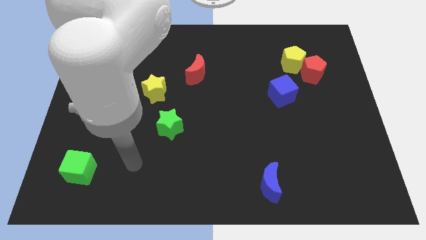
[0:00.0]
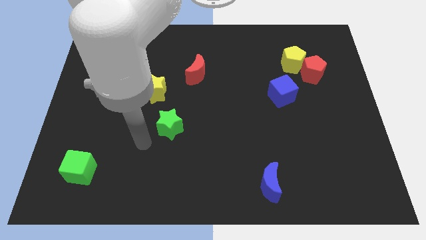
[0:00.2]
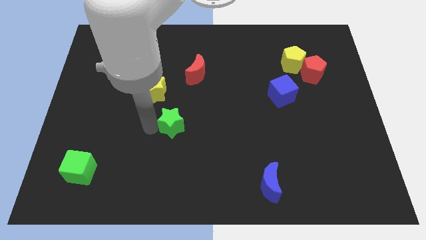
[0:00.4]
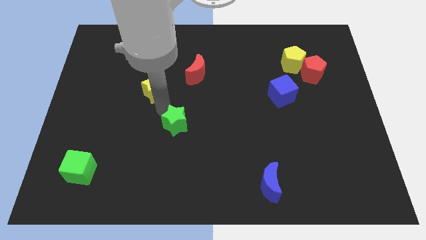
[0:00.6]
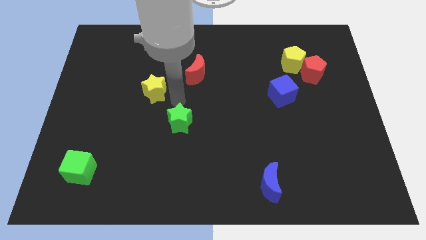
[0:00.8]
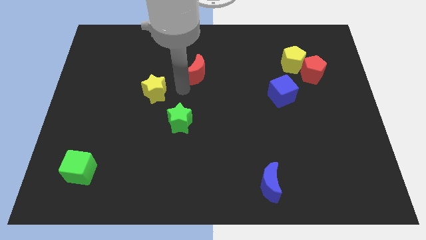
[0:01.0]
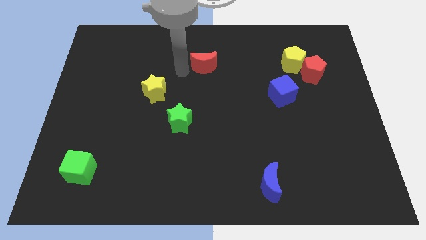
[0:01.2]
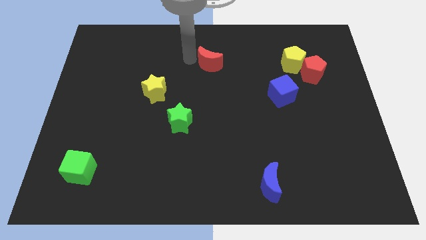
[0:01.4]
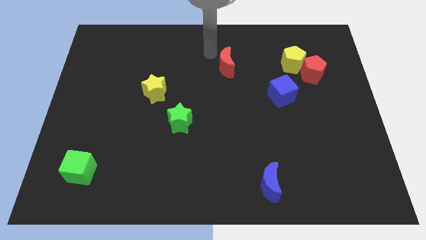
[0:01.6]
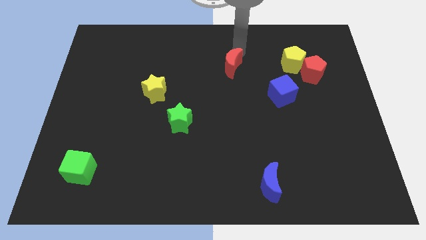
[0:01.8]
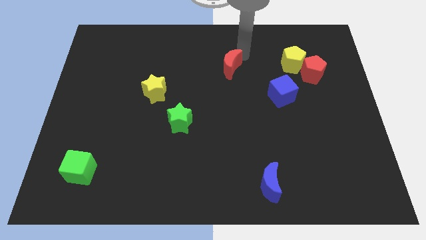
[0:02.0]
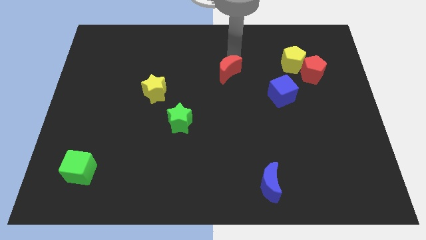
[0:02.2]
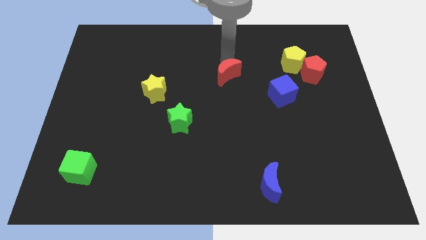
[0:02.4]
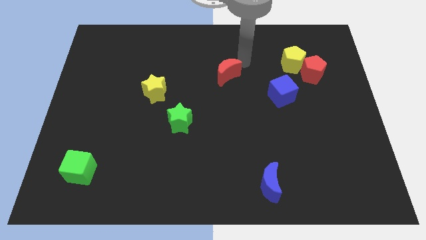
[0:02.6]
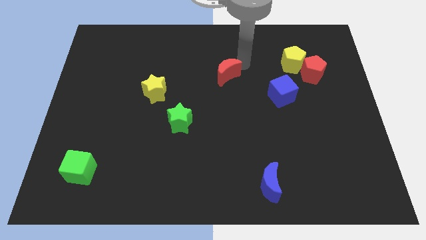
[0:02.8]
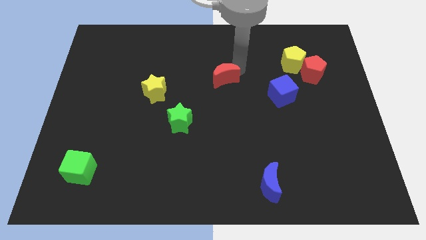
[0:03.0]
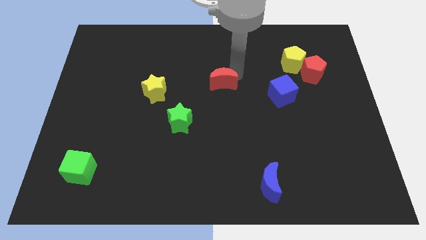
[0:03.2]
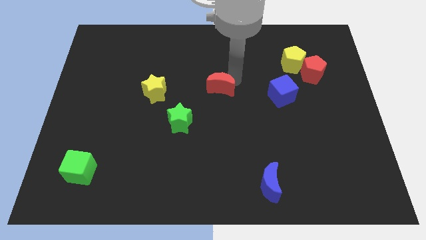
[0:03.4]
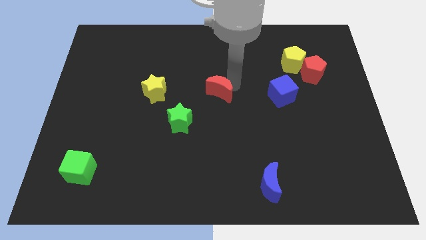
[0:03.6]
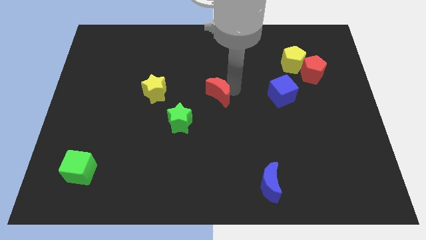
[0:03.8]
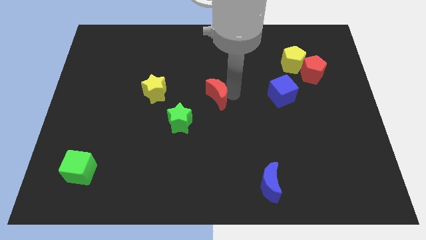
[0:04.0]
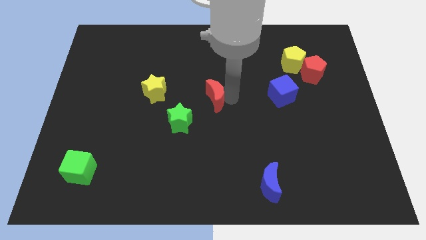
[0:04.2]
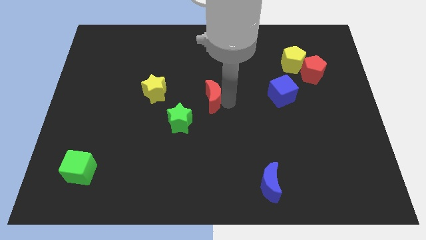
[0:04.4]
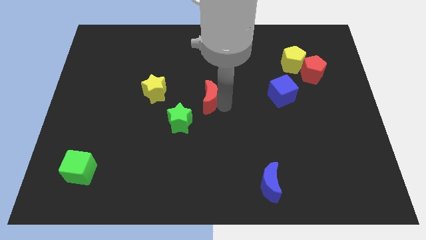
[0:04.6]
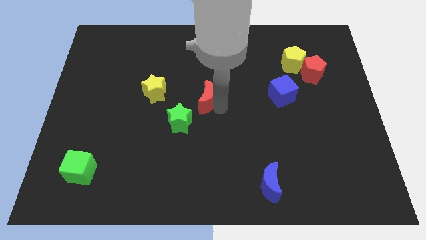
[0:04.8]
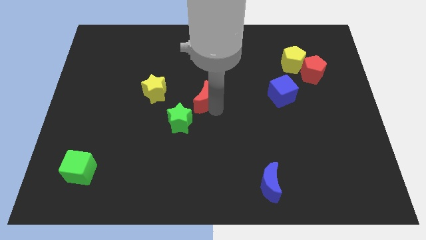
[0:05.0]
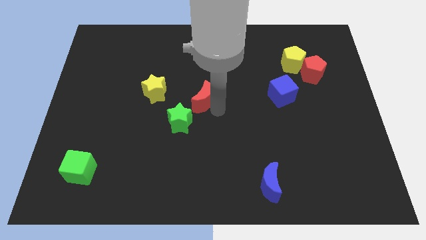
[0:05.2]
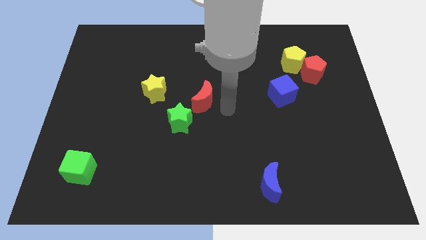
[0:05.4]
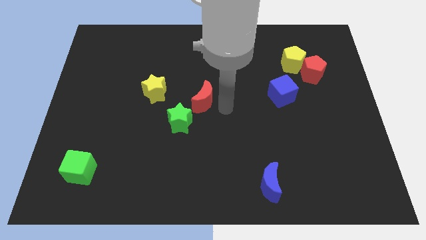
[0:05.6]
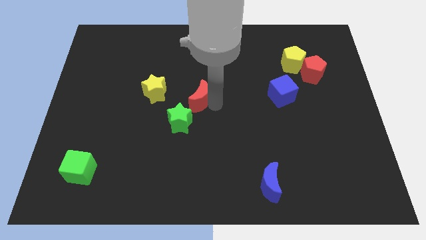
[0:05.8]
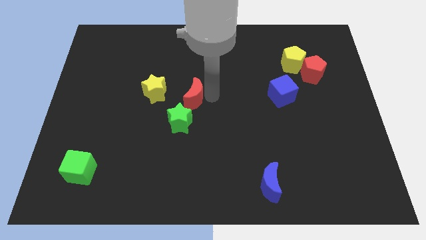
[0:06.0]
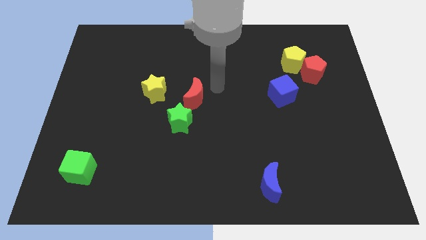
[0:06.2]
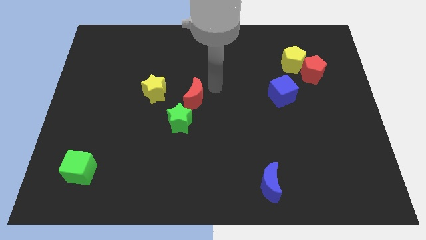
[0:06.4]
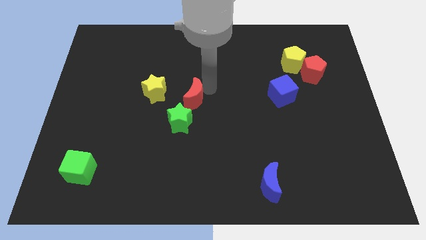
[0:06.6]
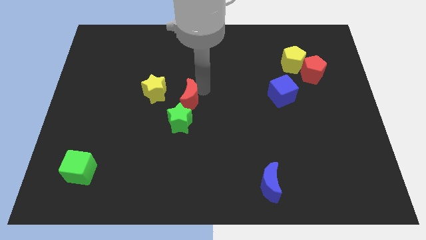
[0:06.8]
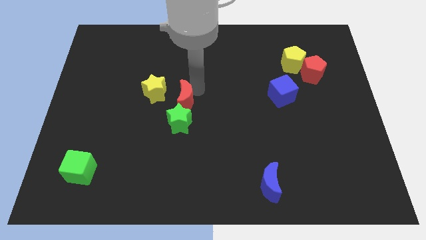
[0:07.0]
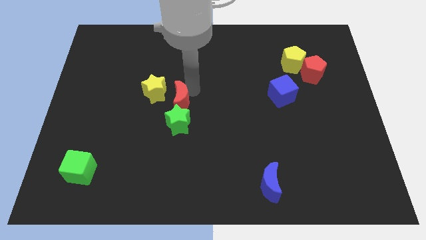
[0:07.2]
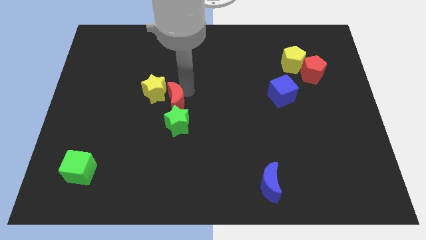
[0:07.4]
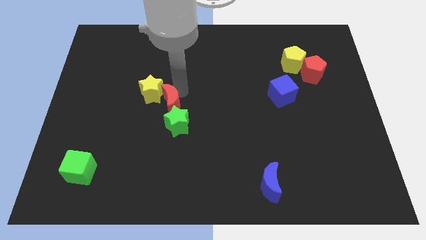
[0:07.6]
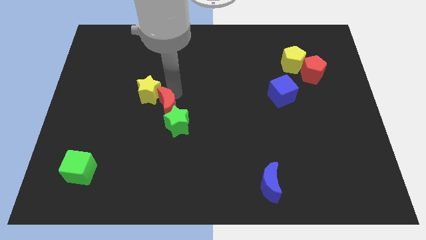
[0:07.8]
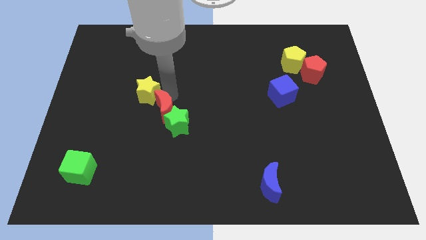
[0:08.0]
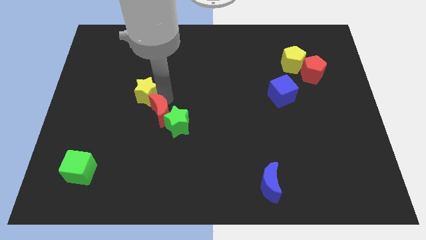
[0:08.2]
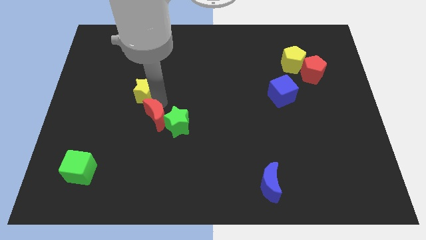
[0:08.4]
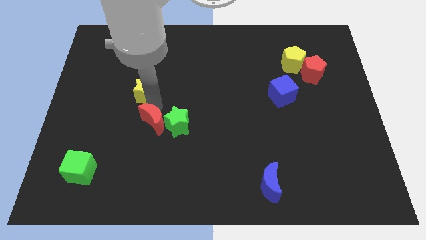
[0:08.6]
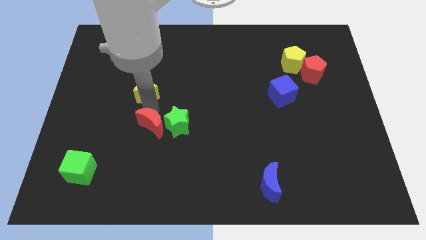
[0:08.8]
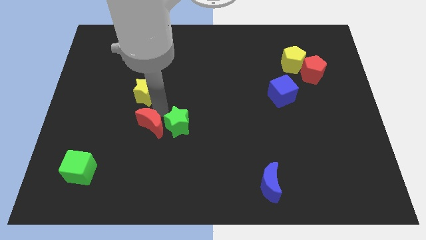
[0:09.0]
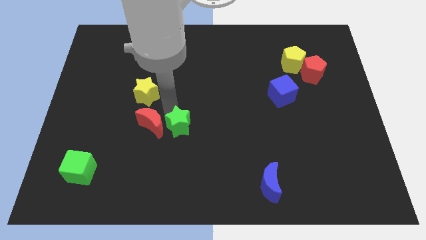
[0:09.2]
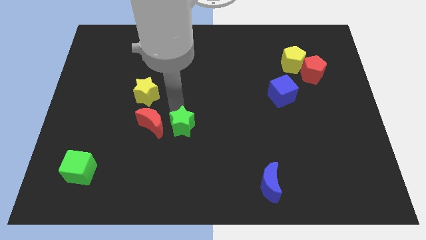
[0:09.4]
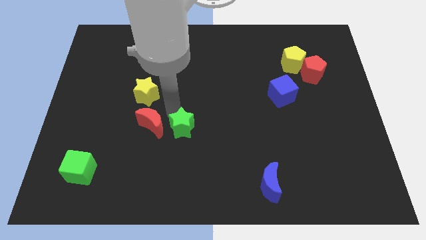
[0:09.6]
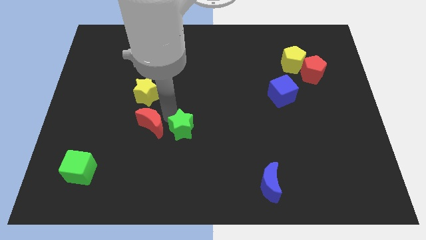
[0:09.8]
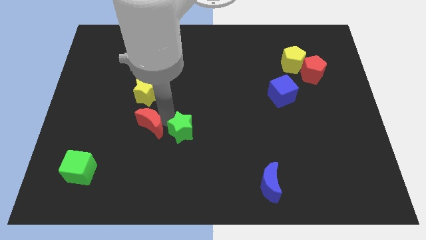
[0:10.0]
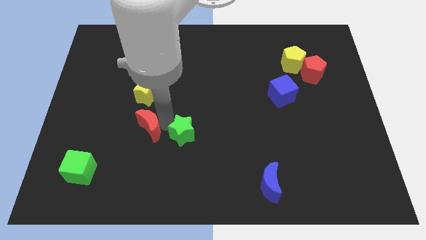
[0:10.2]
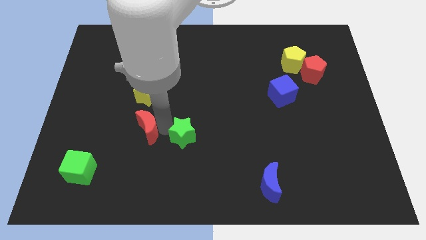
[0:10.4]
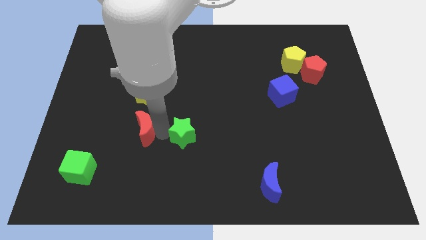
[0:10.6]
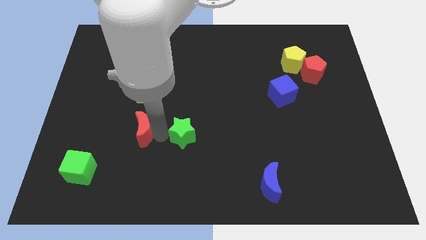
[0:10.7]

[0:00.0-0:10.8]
slide the red moon down and to the left diagonally

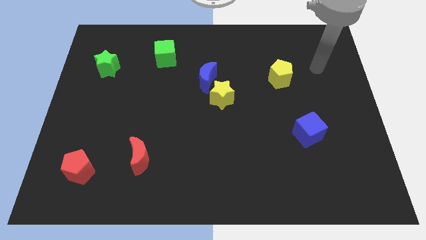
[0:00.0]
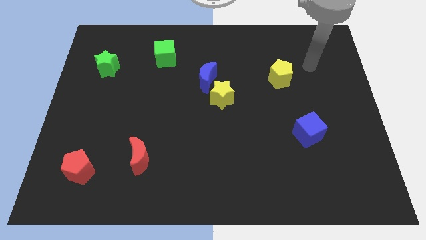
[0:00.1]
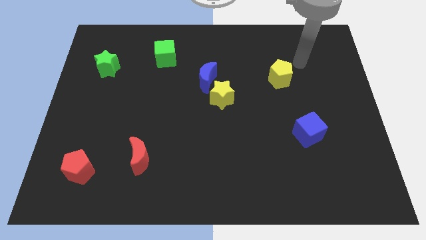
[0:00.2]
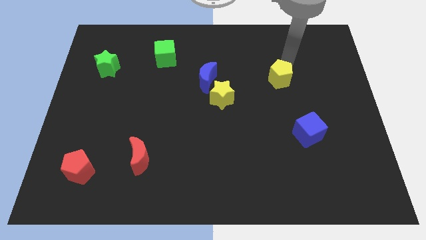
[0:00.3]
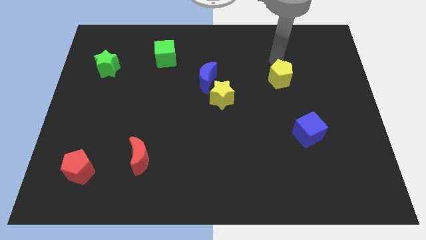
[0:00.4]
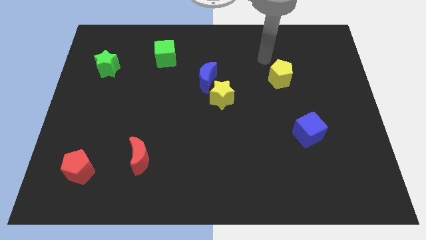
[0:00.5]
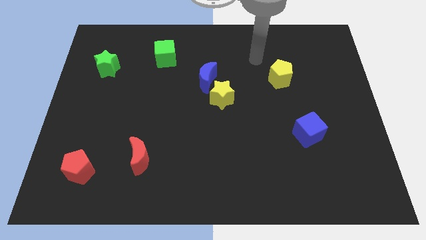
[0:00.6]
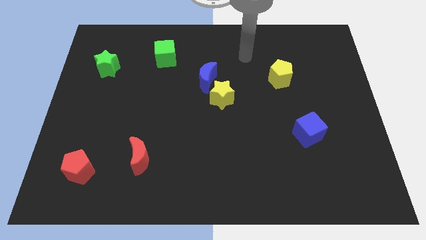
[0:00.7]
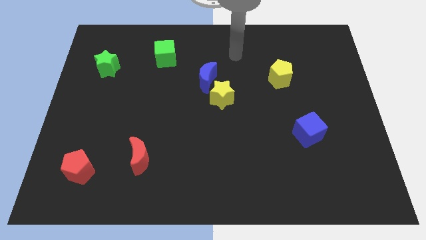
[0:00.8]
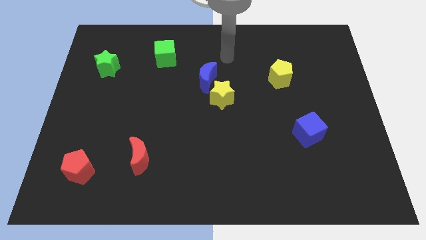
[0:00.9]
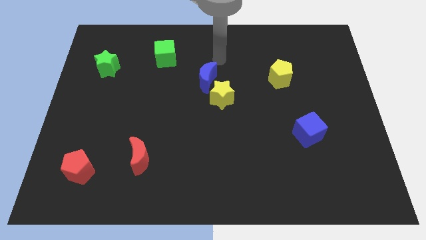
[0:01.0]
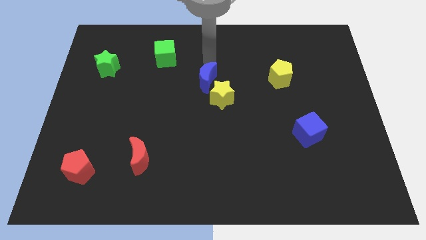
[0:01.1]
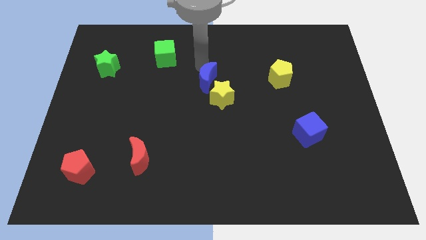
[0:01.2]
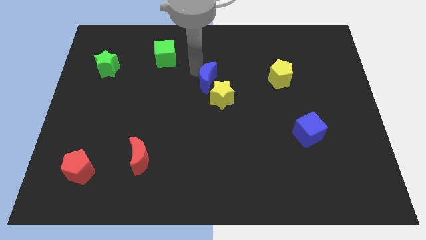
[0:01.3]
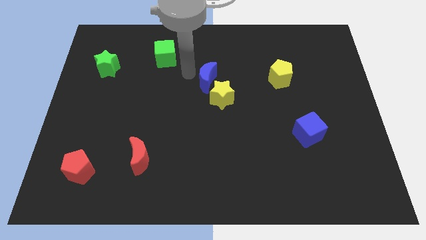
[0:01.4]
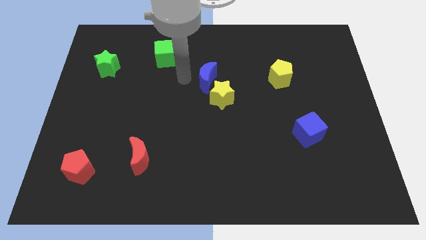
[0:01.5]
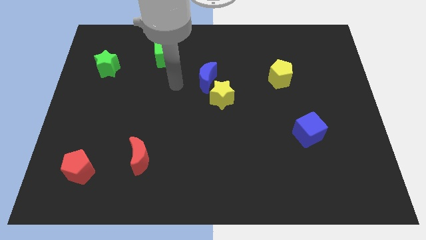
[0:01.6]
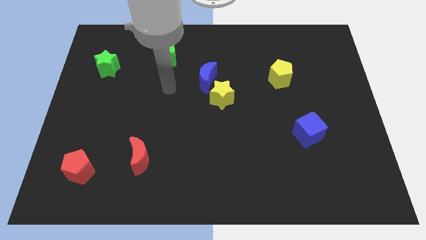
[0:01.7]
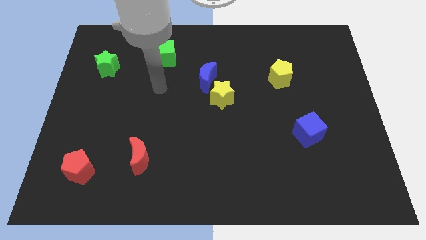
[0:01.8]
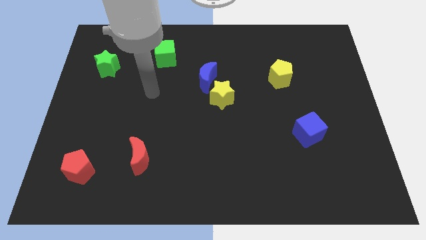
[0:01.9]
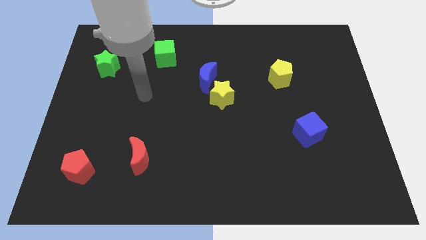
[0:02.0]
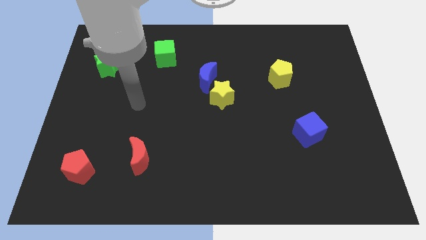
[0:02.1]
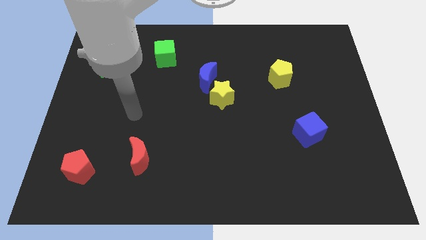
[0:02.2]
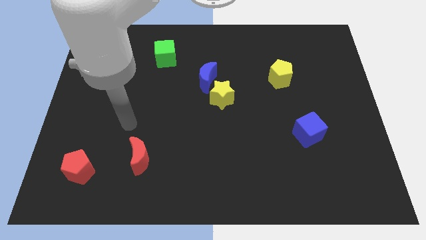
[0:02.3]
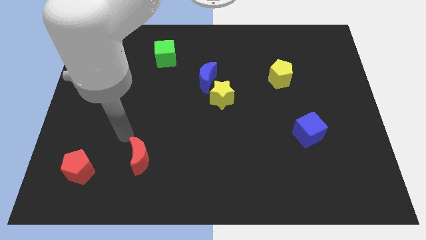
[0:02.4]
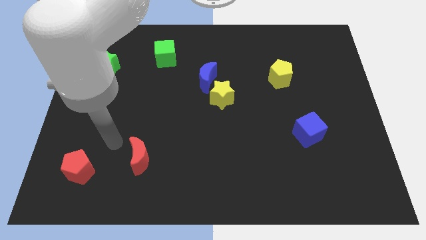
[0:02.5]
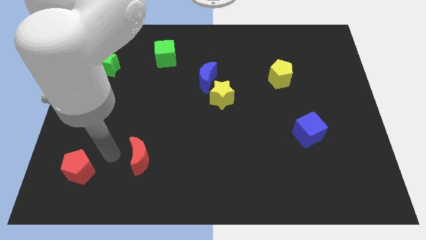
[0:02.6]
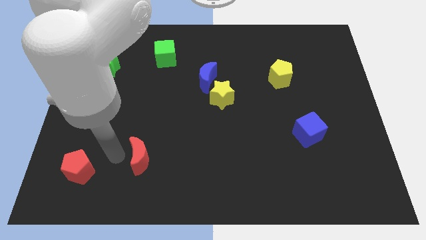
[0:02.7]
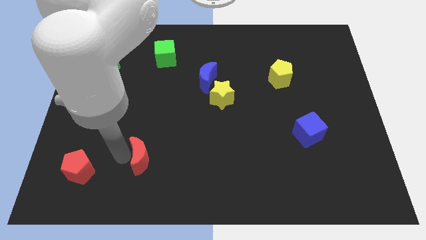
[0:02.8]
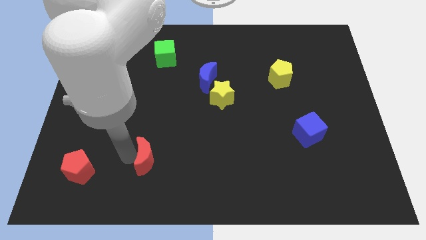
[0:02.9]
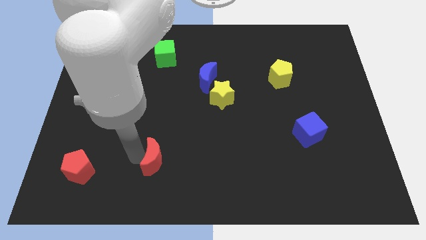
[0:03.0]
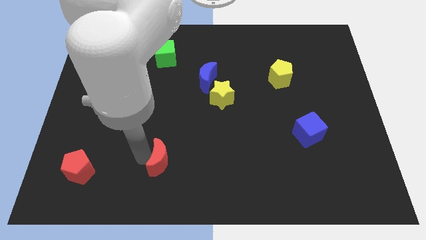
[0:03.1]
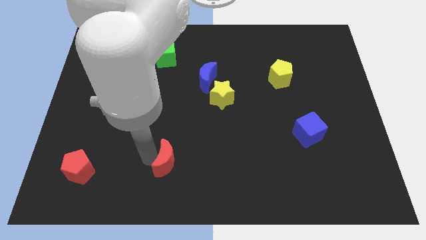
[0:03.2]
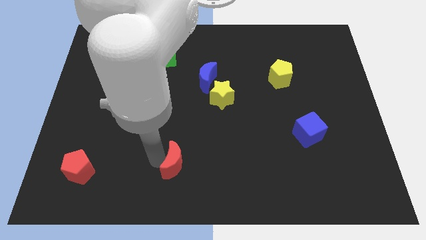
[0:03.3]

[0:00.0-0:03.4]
slightly slide the red moon right
